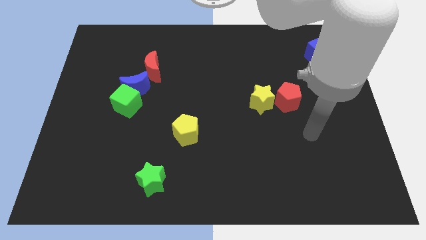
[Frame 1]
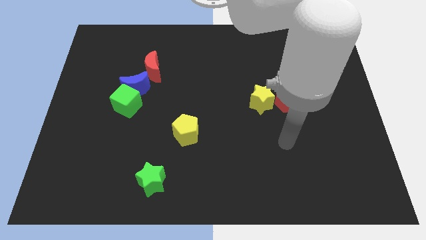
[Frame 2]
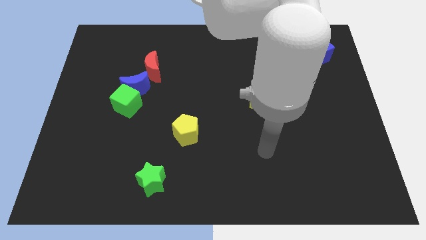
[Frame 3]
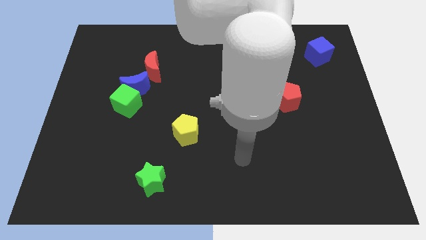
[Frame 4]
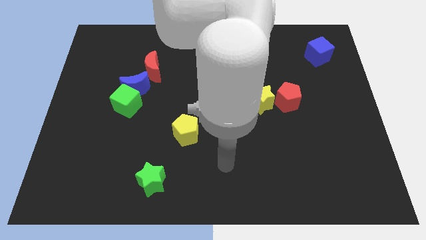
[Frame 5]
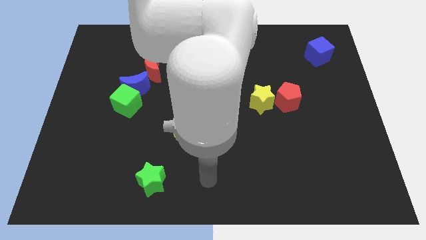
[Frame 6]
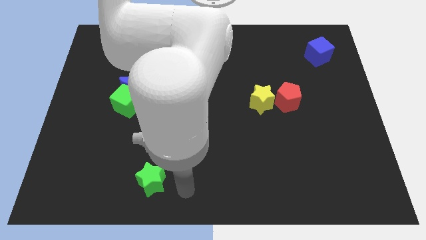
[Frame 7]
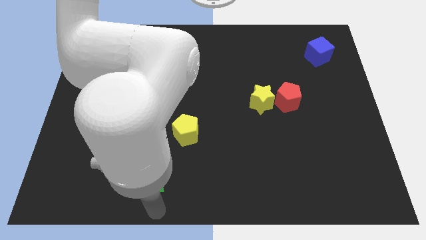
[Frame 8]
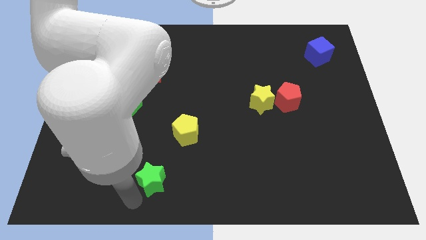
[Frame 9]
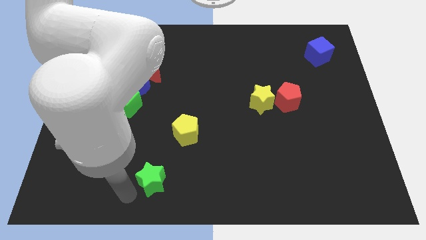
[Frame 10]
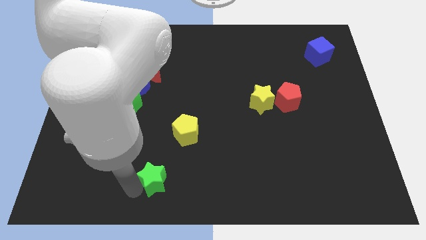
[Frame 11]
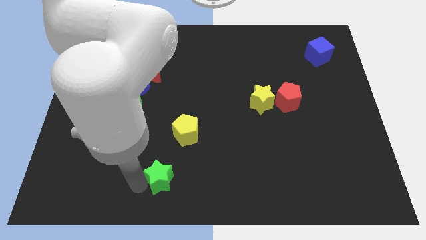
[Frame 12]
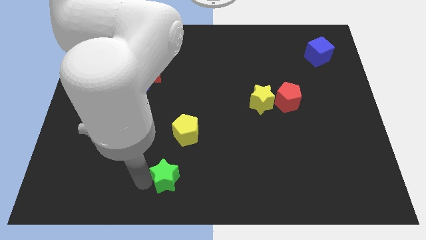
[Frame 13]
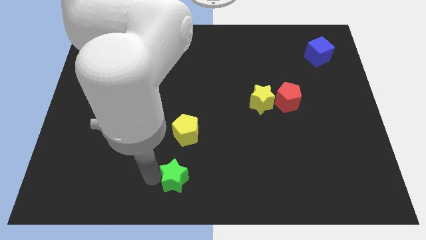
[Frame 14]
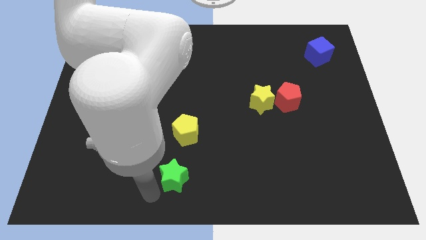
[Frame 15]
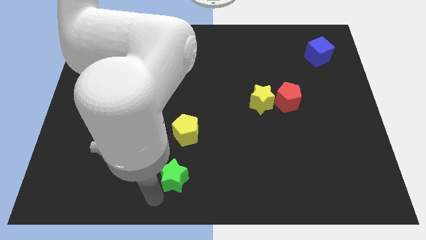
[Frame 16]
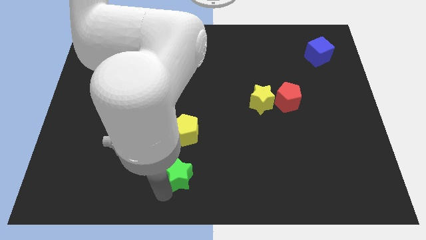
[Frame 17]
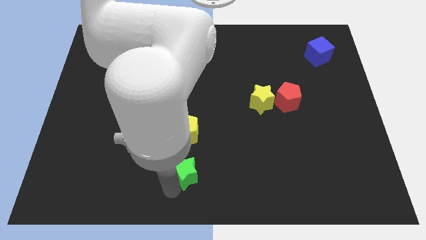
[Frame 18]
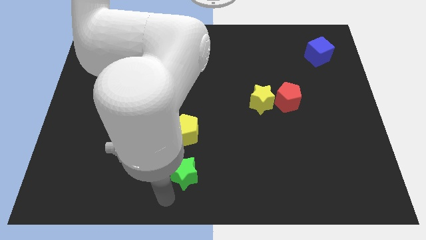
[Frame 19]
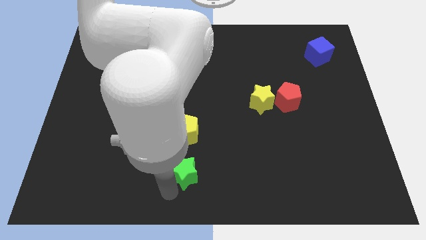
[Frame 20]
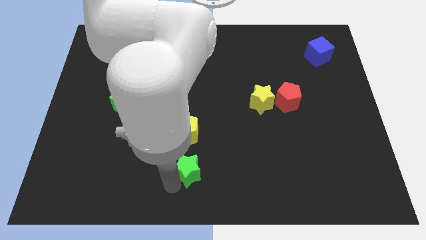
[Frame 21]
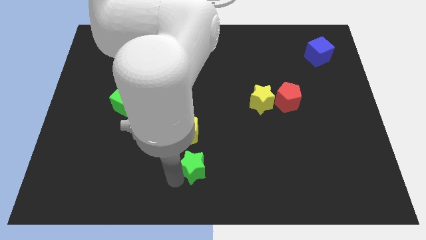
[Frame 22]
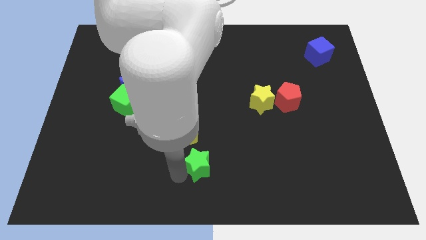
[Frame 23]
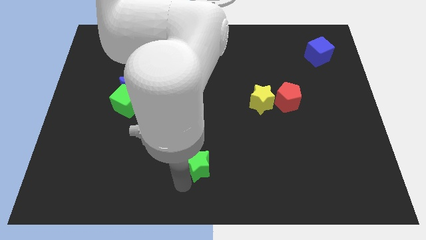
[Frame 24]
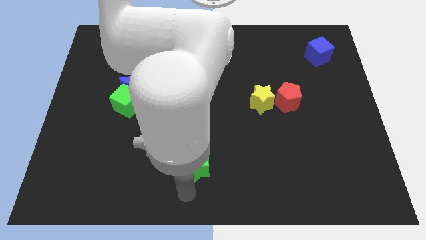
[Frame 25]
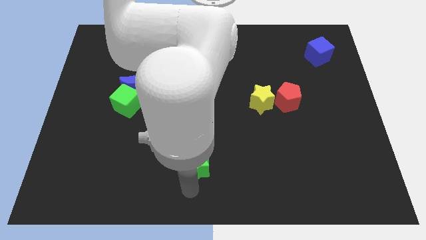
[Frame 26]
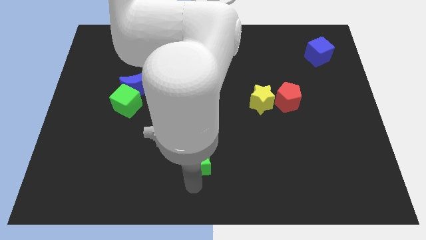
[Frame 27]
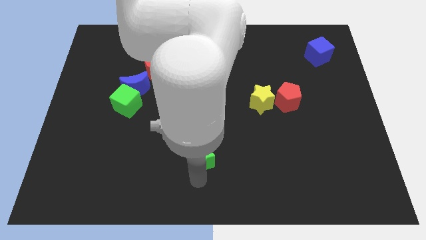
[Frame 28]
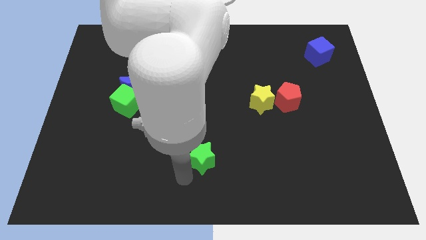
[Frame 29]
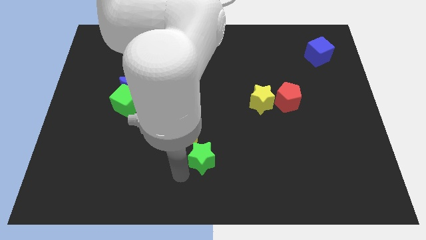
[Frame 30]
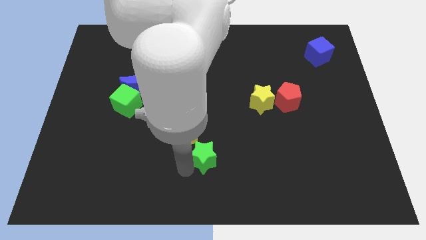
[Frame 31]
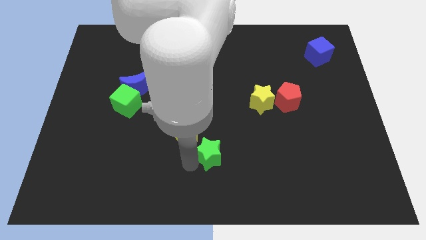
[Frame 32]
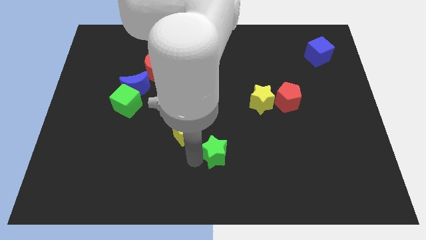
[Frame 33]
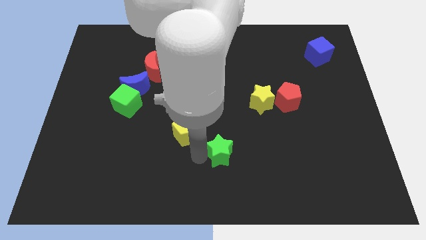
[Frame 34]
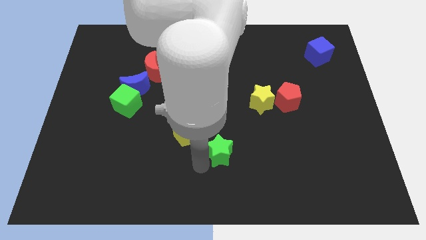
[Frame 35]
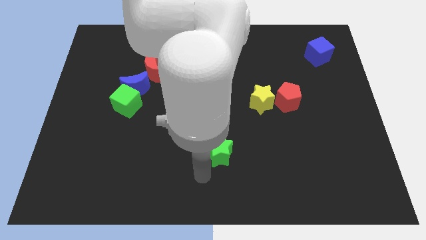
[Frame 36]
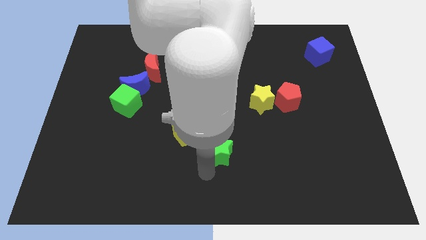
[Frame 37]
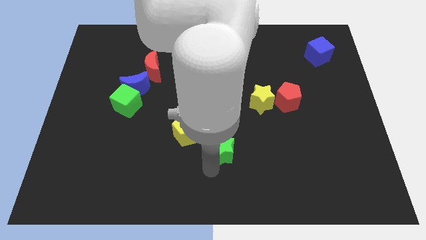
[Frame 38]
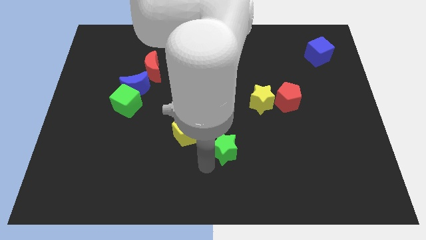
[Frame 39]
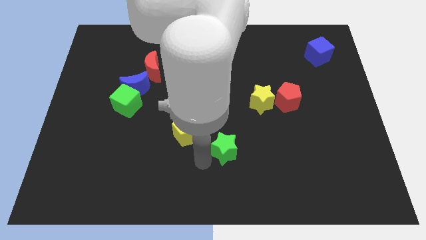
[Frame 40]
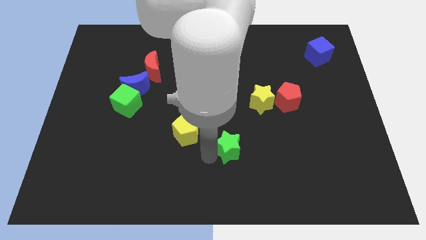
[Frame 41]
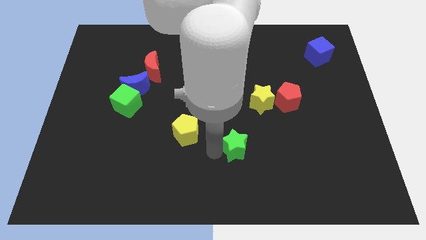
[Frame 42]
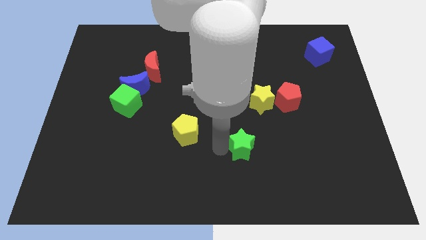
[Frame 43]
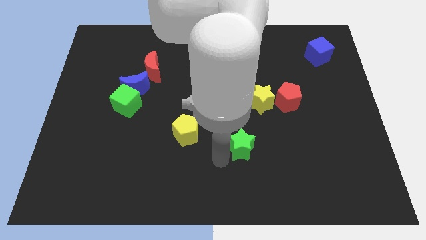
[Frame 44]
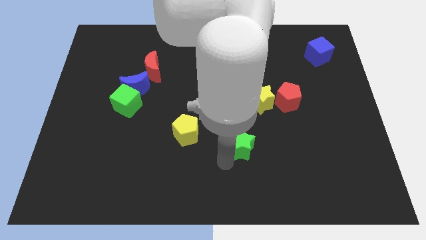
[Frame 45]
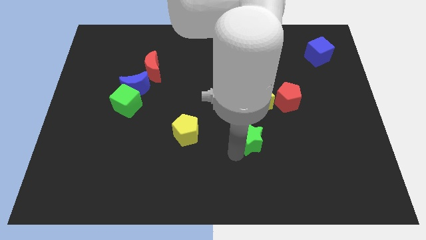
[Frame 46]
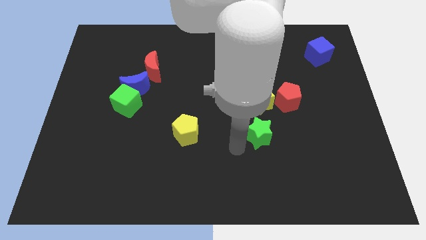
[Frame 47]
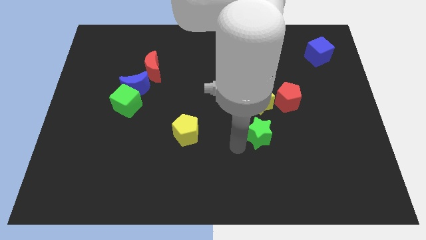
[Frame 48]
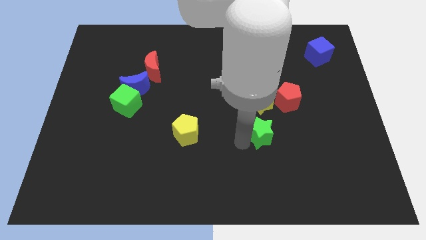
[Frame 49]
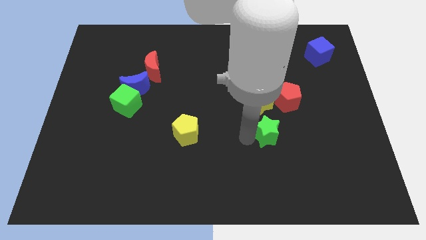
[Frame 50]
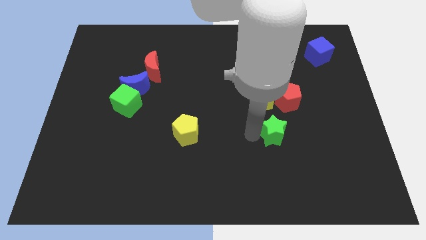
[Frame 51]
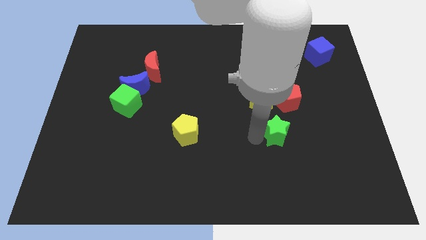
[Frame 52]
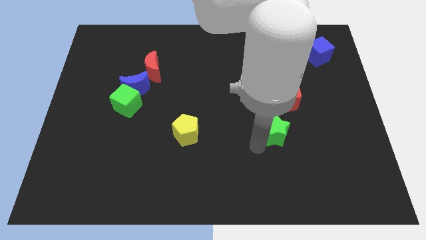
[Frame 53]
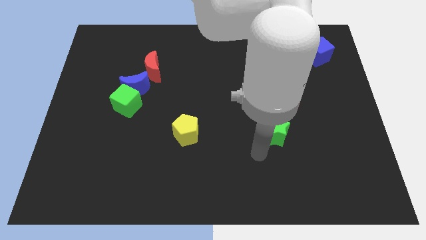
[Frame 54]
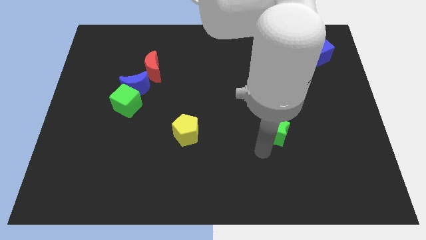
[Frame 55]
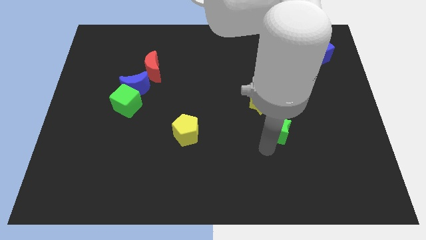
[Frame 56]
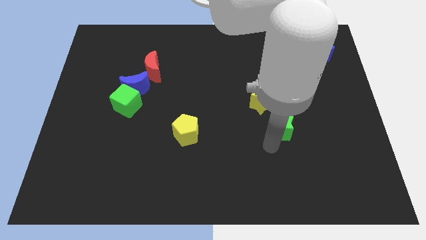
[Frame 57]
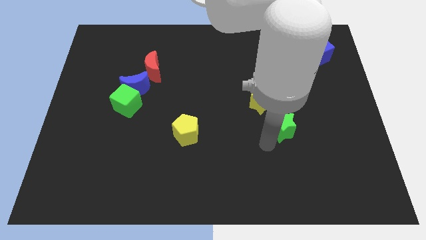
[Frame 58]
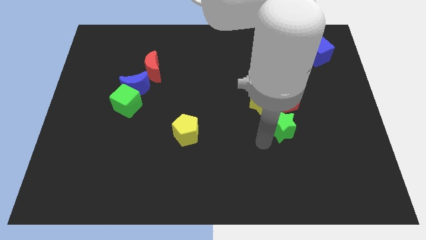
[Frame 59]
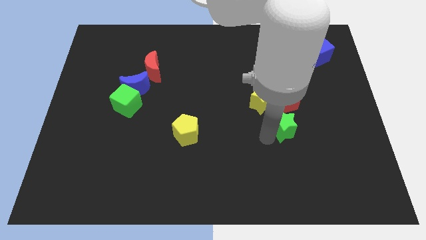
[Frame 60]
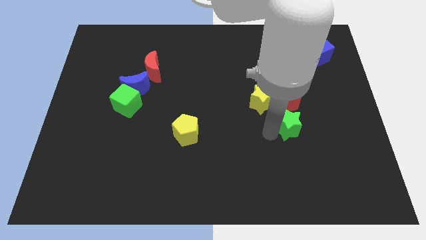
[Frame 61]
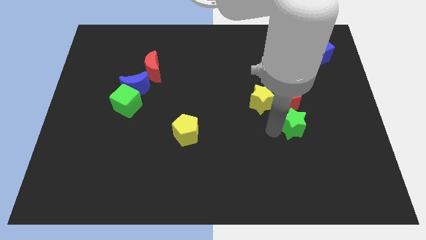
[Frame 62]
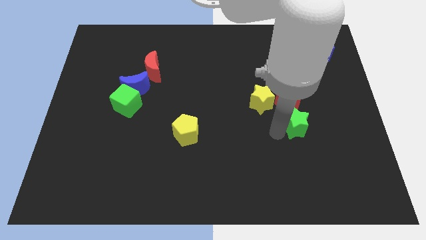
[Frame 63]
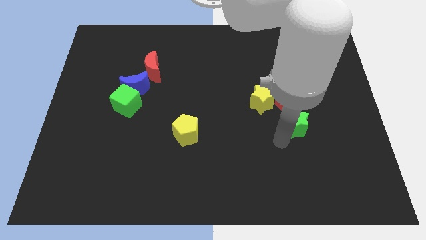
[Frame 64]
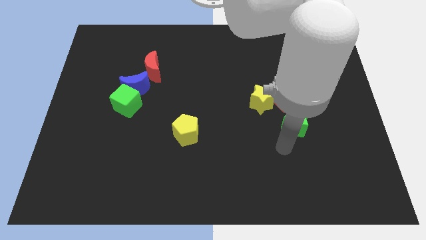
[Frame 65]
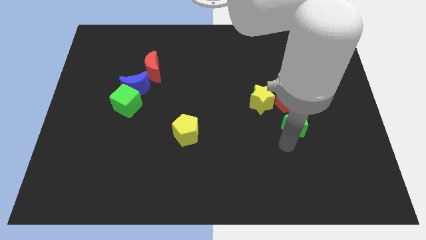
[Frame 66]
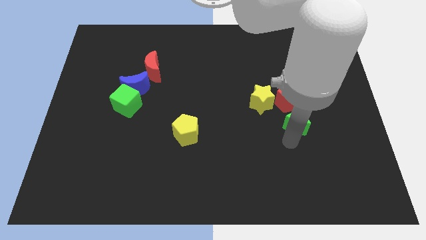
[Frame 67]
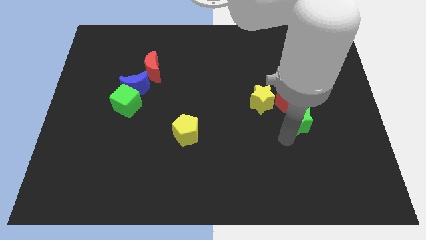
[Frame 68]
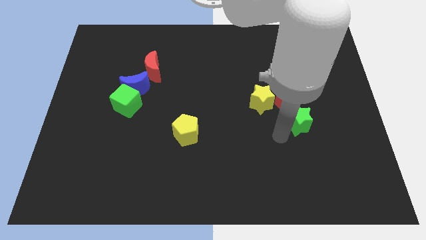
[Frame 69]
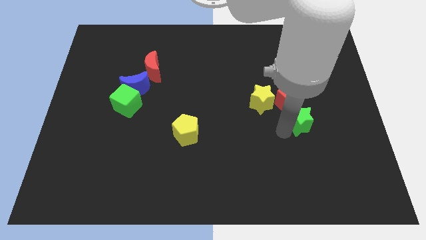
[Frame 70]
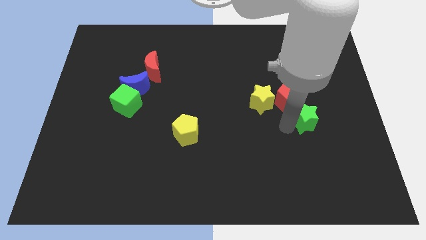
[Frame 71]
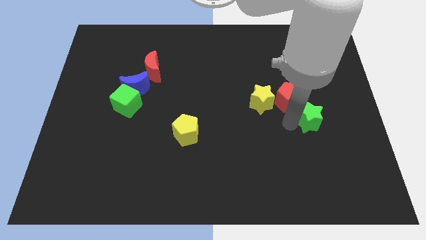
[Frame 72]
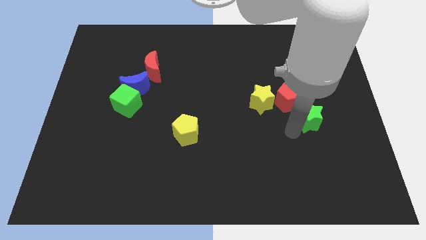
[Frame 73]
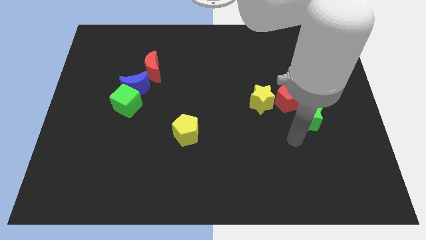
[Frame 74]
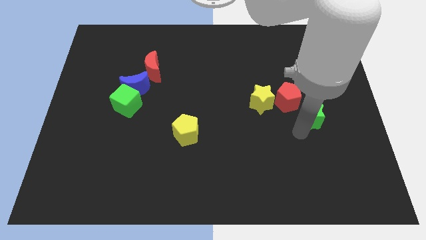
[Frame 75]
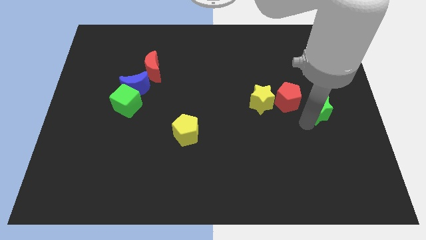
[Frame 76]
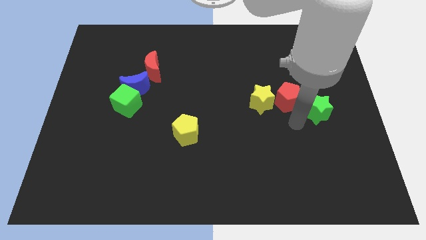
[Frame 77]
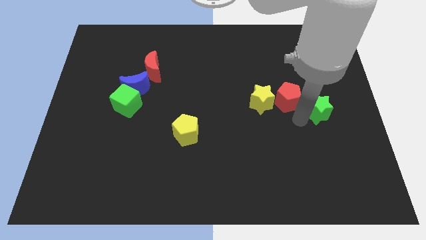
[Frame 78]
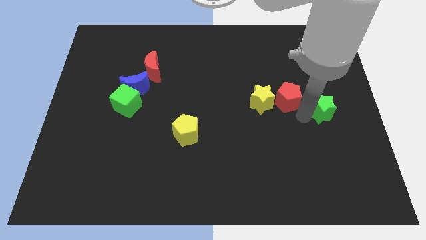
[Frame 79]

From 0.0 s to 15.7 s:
put the green star to the right side
